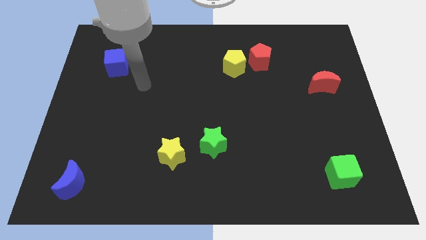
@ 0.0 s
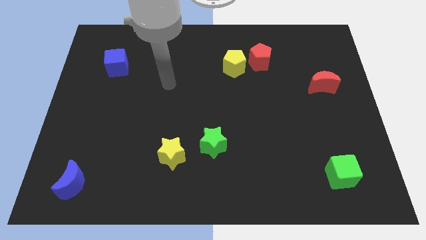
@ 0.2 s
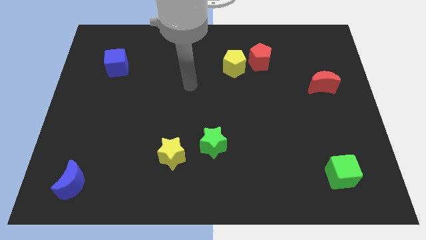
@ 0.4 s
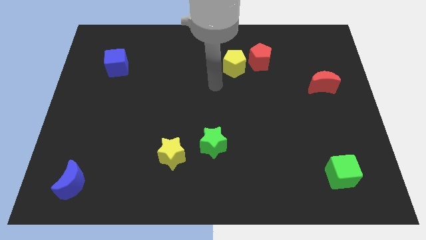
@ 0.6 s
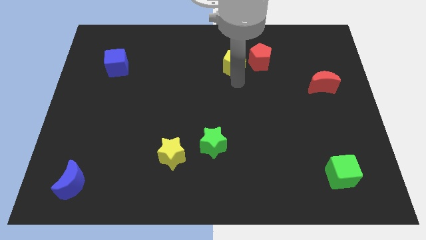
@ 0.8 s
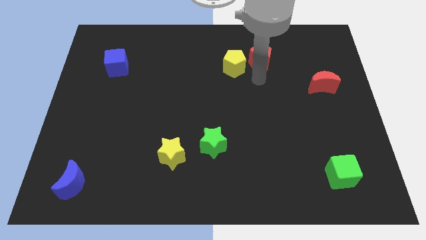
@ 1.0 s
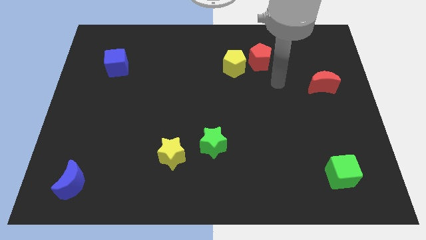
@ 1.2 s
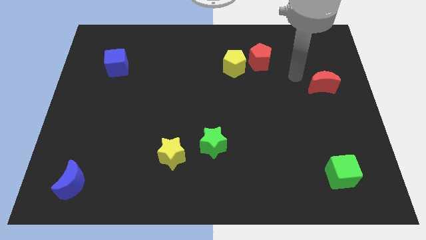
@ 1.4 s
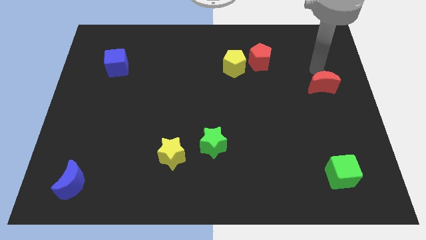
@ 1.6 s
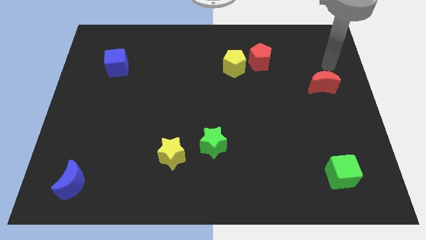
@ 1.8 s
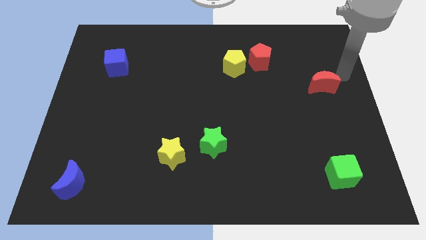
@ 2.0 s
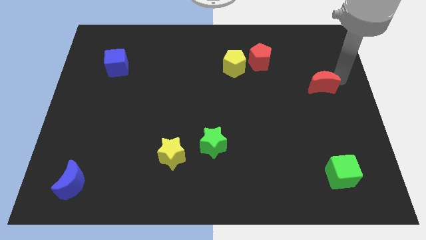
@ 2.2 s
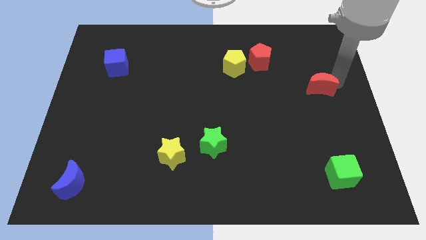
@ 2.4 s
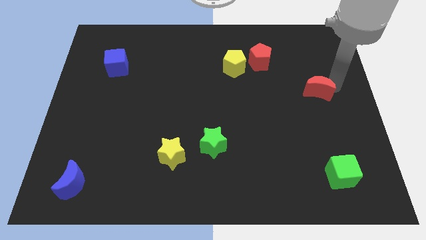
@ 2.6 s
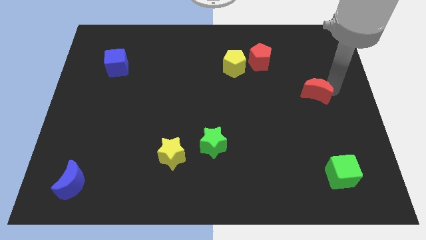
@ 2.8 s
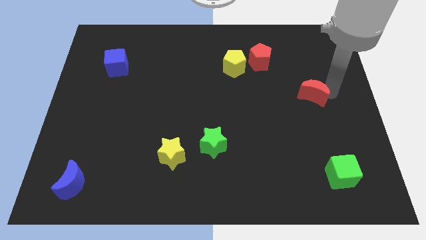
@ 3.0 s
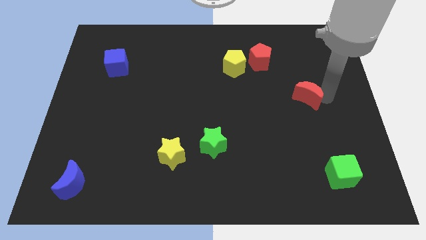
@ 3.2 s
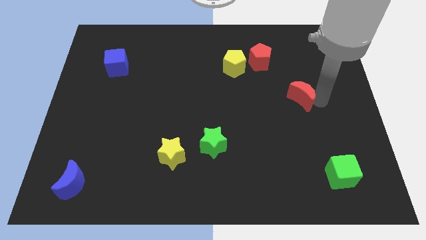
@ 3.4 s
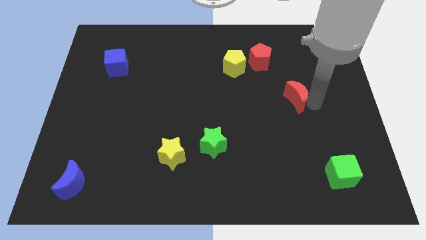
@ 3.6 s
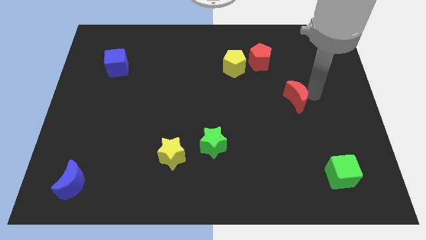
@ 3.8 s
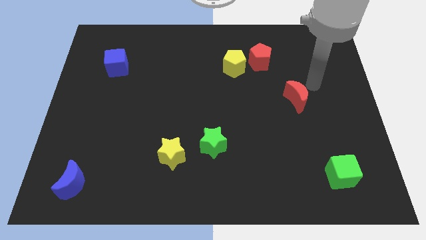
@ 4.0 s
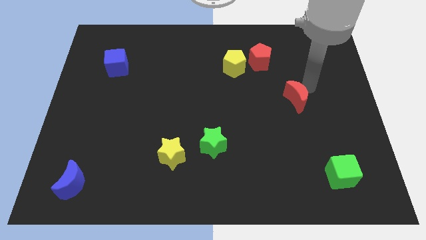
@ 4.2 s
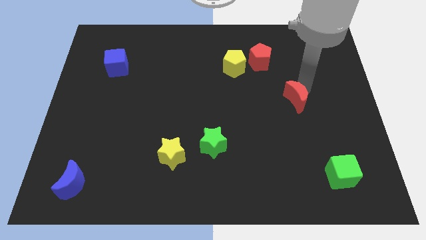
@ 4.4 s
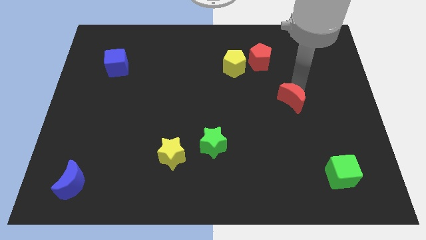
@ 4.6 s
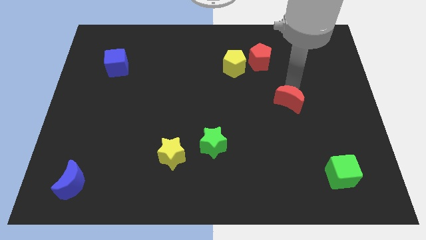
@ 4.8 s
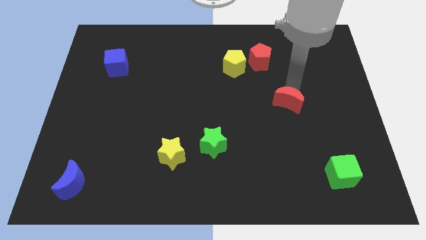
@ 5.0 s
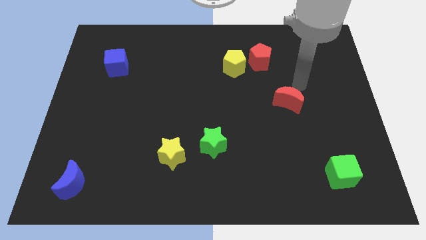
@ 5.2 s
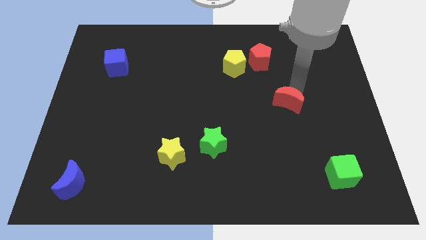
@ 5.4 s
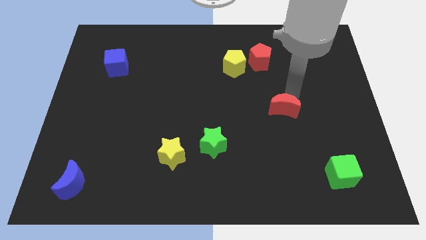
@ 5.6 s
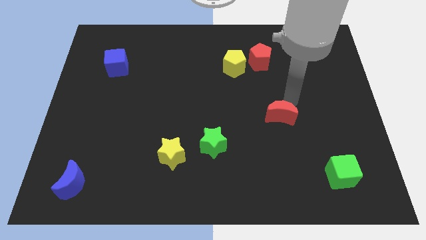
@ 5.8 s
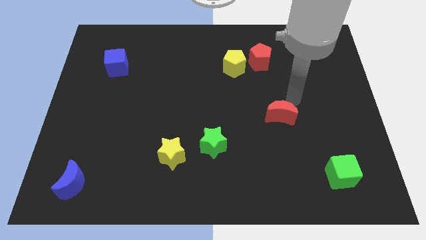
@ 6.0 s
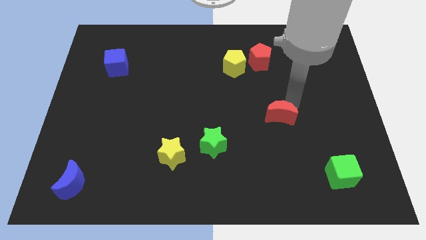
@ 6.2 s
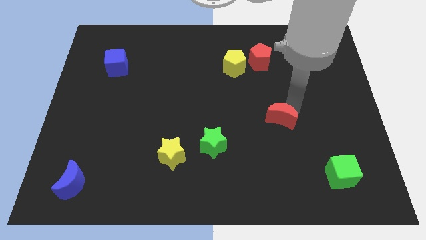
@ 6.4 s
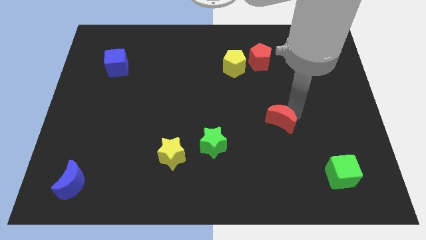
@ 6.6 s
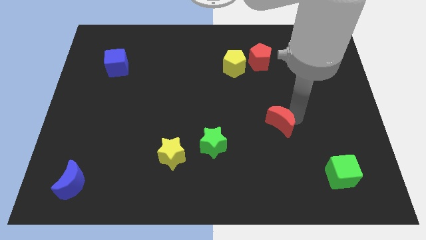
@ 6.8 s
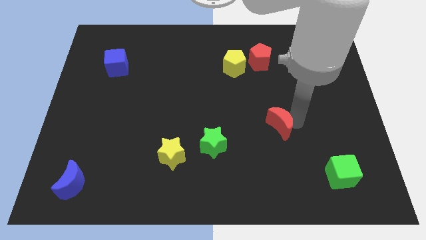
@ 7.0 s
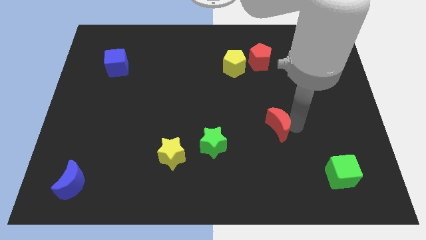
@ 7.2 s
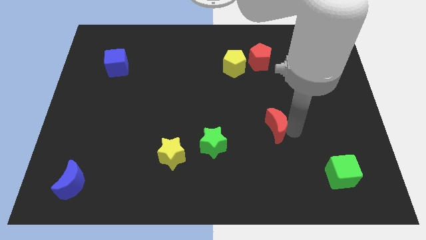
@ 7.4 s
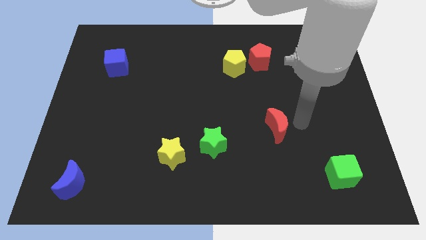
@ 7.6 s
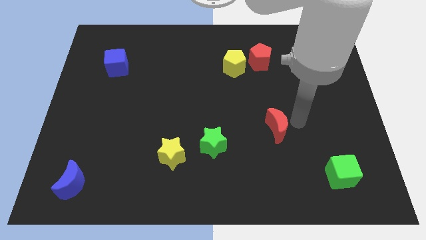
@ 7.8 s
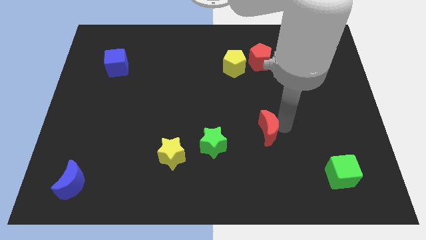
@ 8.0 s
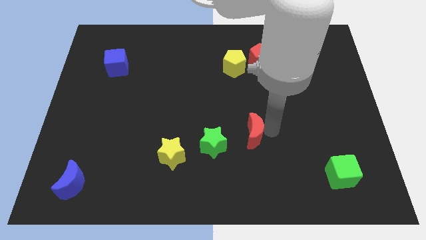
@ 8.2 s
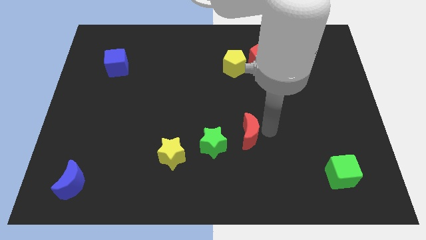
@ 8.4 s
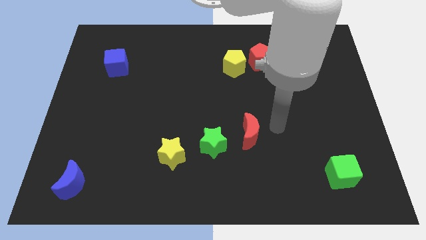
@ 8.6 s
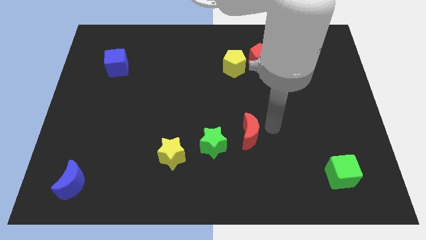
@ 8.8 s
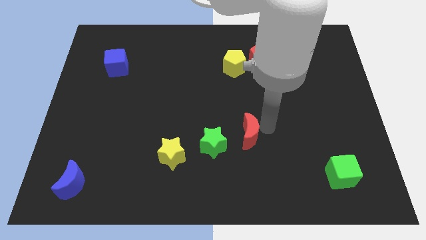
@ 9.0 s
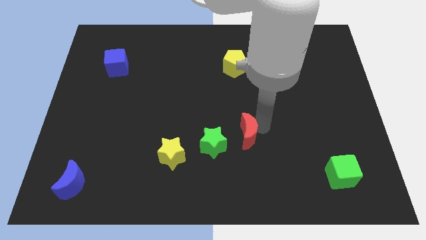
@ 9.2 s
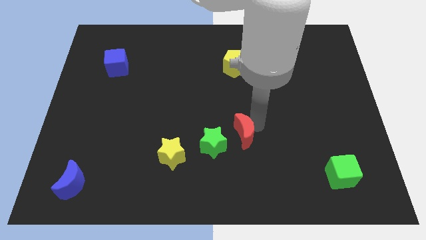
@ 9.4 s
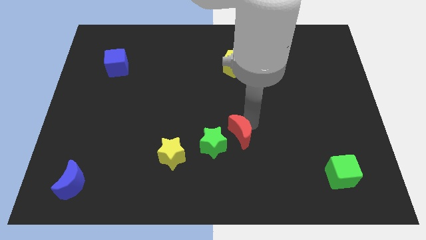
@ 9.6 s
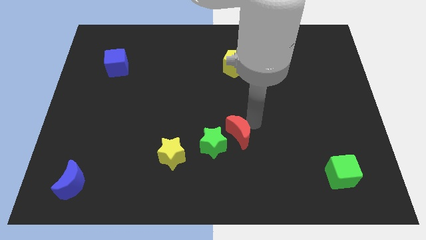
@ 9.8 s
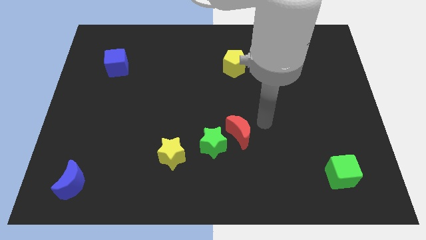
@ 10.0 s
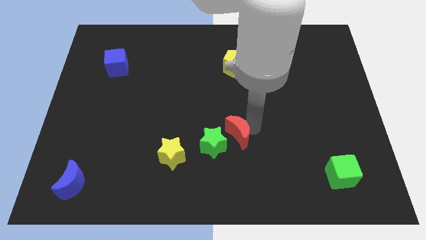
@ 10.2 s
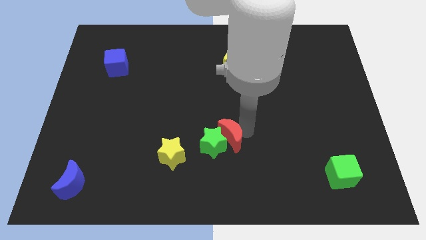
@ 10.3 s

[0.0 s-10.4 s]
slide the red moon to the green star

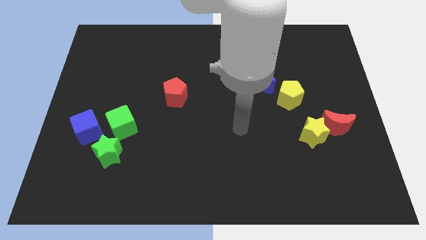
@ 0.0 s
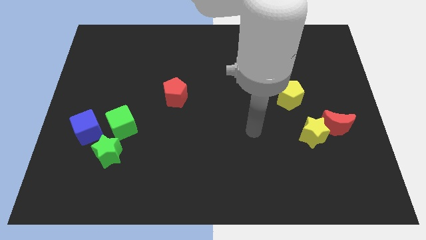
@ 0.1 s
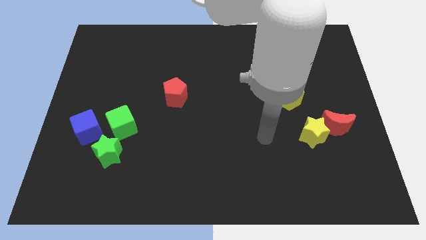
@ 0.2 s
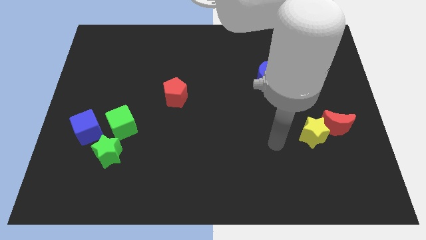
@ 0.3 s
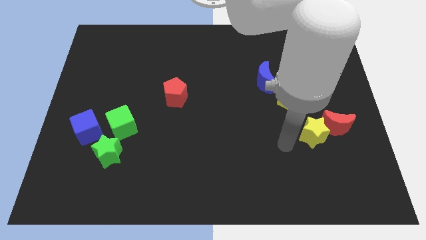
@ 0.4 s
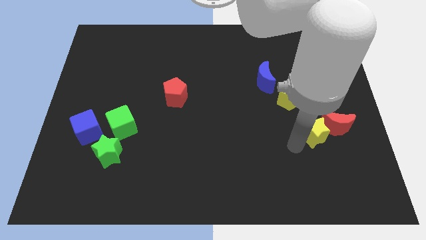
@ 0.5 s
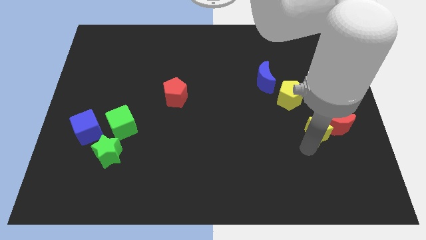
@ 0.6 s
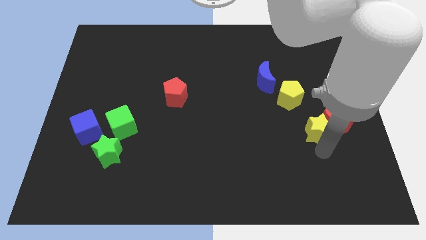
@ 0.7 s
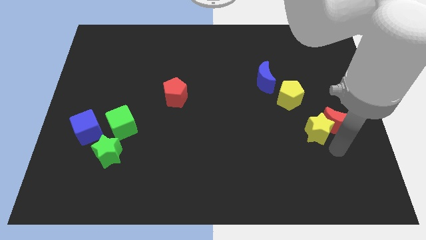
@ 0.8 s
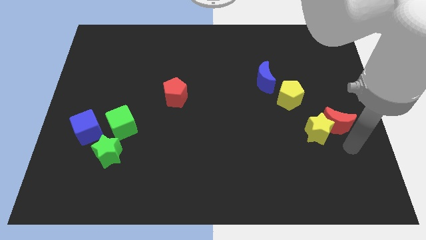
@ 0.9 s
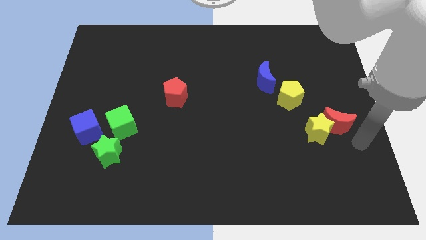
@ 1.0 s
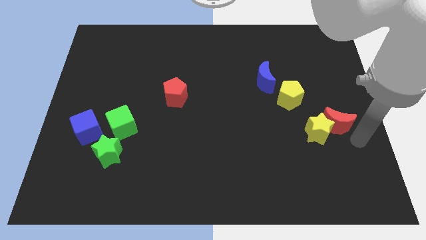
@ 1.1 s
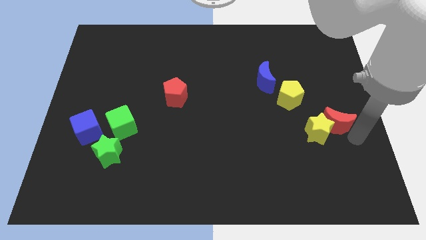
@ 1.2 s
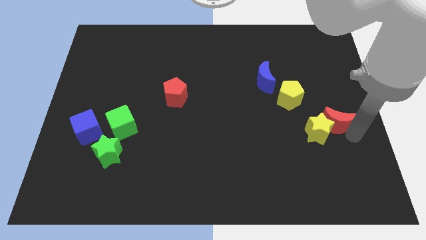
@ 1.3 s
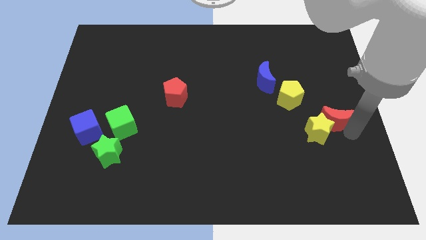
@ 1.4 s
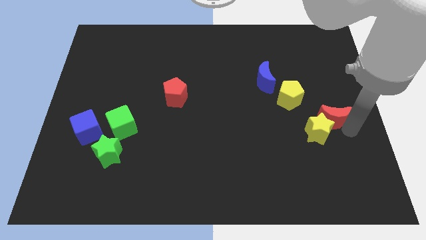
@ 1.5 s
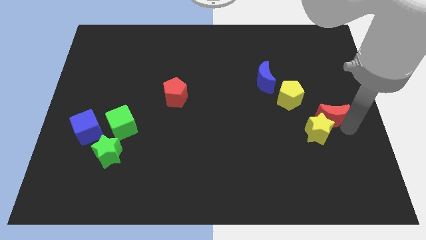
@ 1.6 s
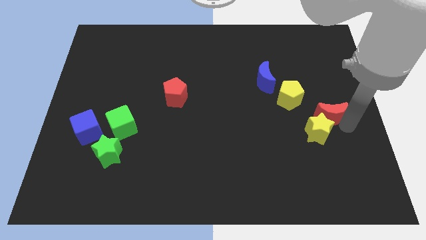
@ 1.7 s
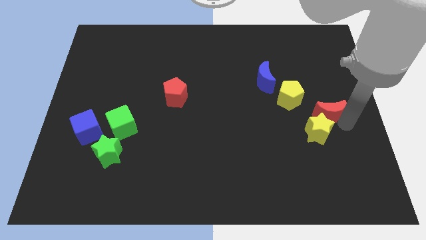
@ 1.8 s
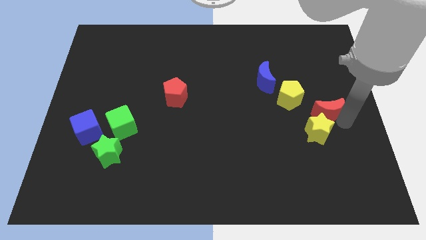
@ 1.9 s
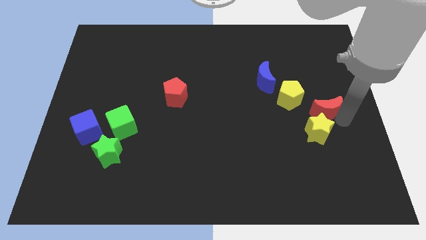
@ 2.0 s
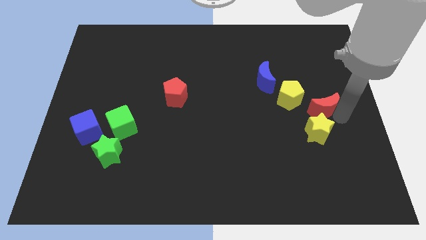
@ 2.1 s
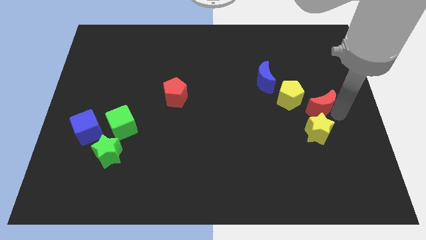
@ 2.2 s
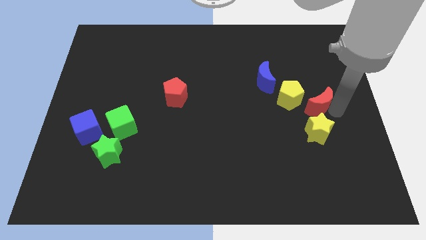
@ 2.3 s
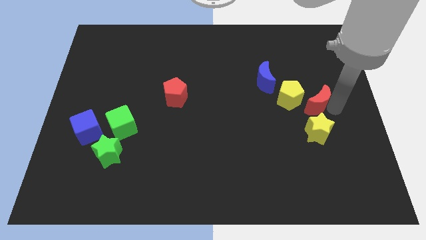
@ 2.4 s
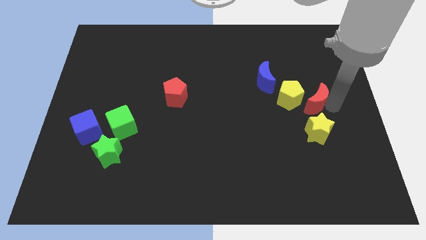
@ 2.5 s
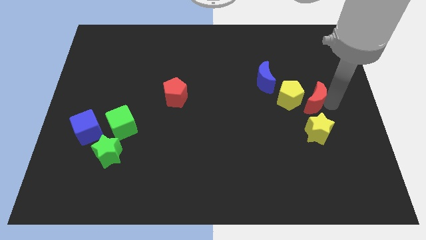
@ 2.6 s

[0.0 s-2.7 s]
slide the red moon next to the yellow pentagon
